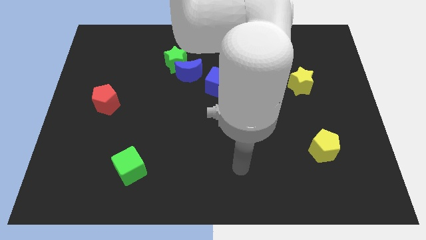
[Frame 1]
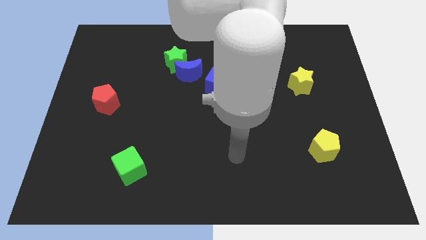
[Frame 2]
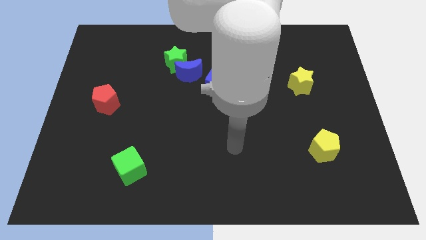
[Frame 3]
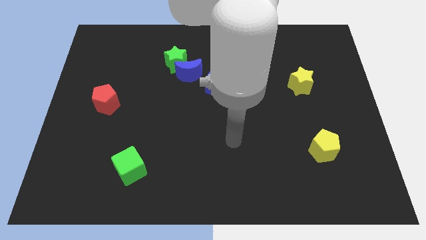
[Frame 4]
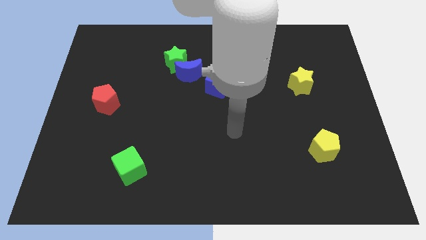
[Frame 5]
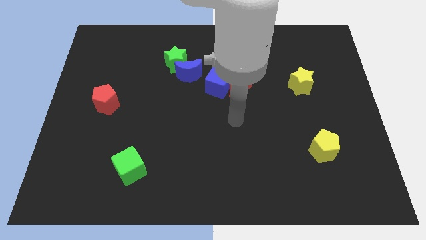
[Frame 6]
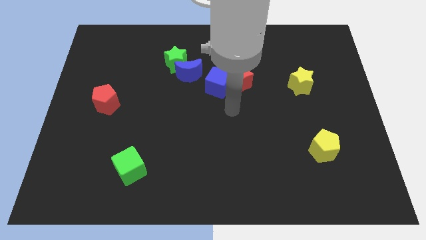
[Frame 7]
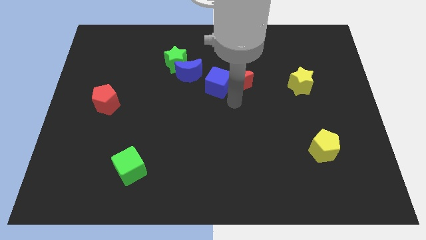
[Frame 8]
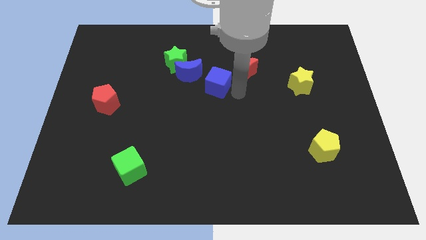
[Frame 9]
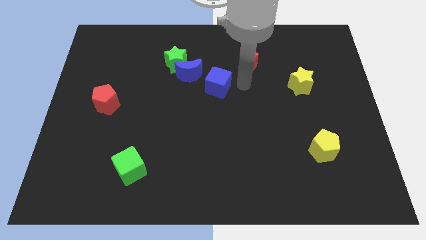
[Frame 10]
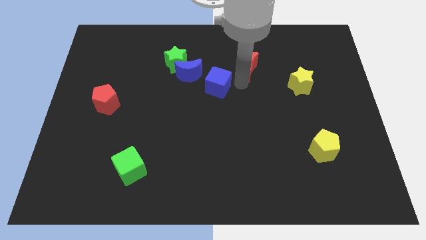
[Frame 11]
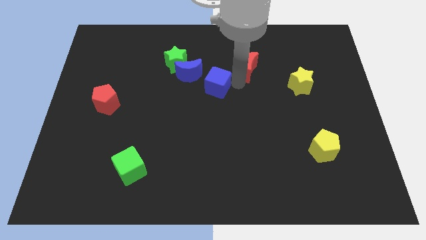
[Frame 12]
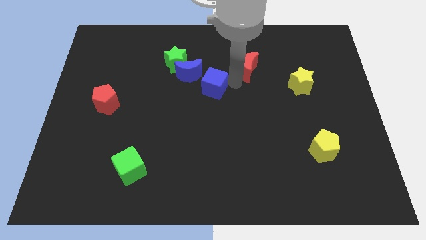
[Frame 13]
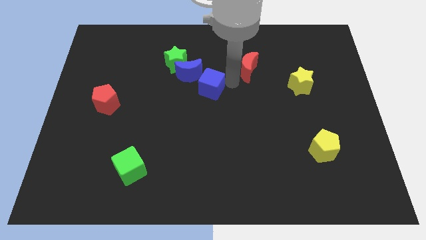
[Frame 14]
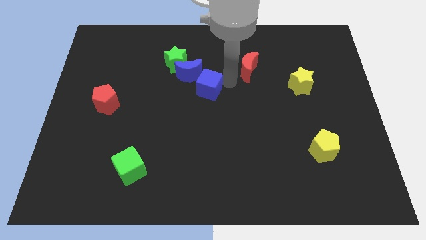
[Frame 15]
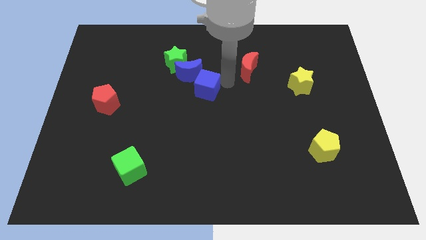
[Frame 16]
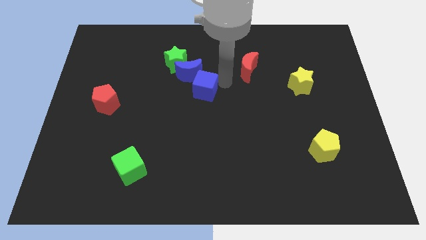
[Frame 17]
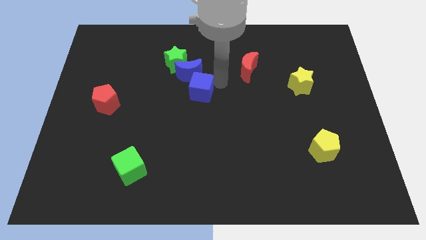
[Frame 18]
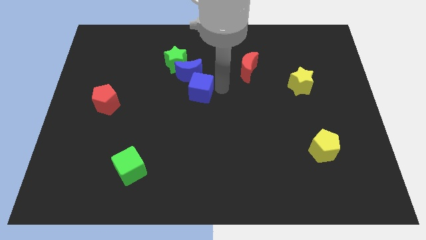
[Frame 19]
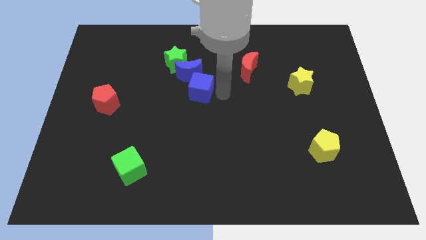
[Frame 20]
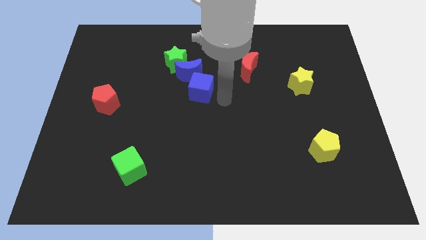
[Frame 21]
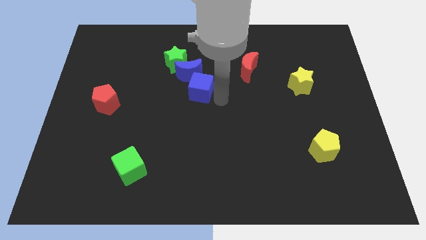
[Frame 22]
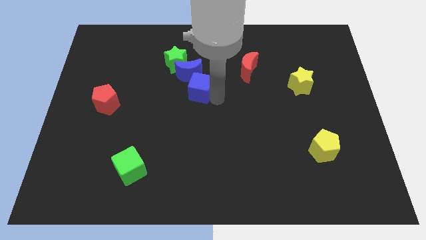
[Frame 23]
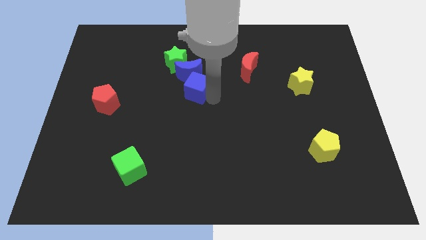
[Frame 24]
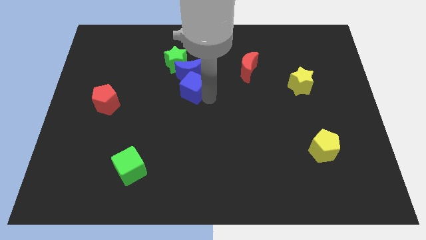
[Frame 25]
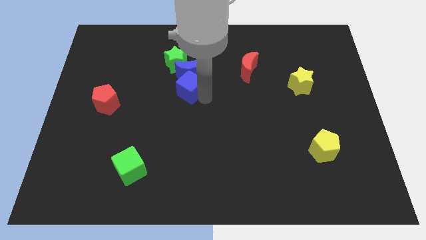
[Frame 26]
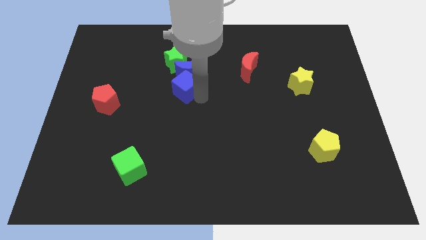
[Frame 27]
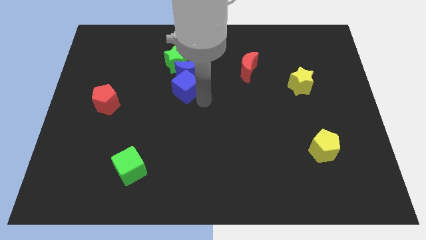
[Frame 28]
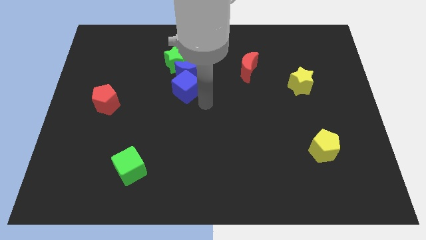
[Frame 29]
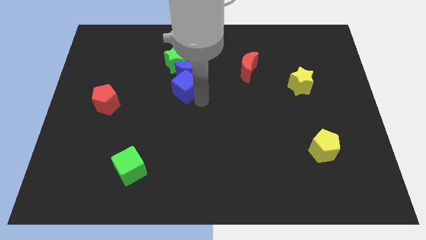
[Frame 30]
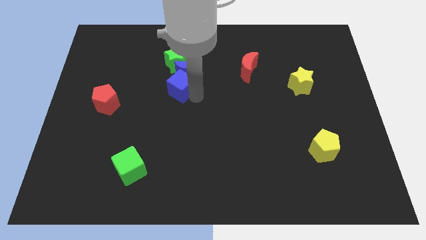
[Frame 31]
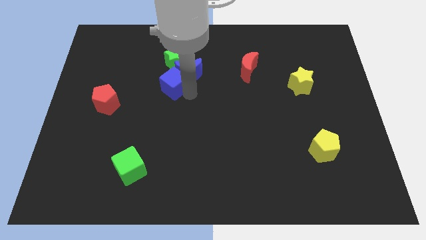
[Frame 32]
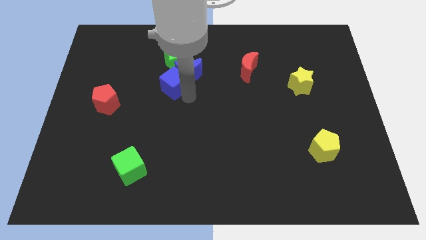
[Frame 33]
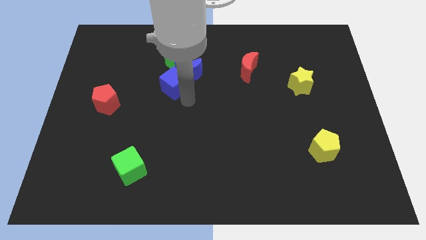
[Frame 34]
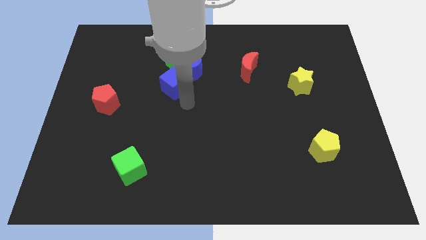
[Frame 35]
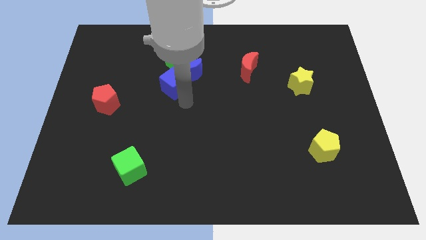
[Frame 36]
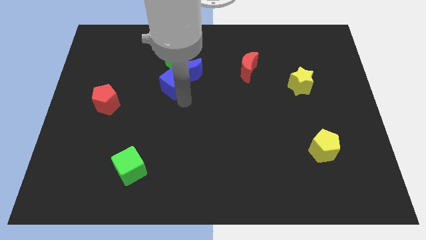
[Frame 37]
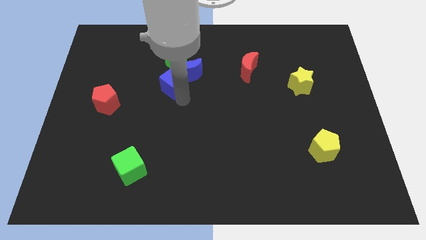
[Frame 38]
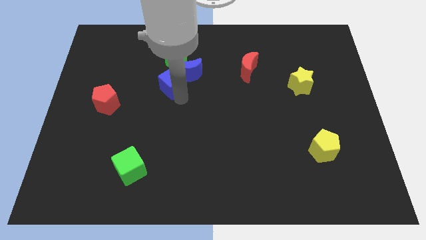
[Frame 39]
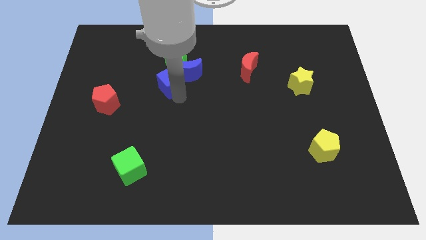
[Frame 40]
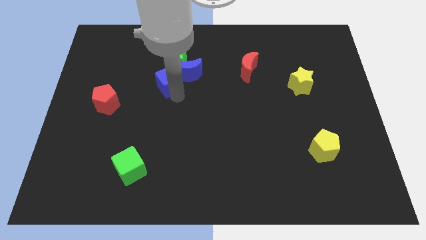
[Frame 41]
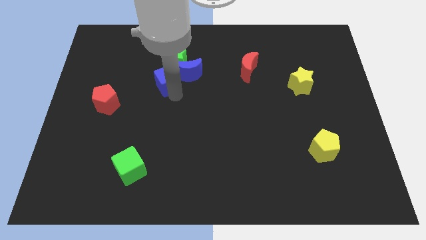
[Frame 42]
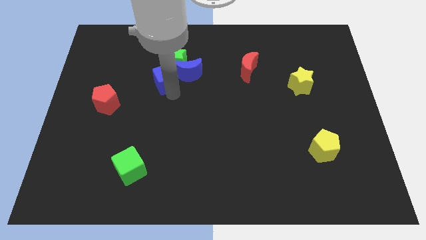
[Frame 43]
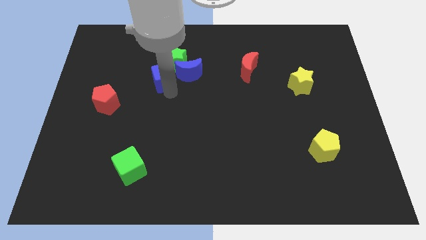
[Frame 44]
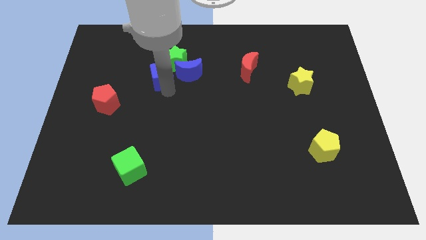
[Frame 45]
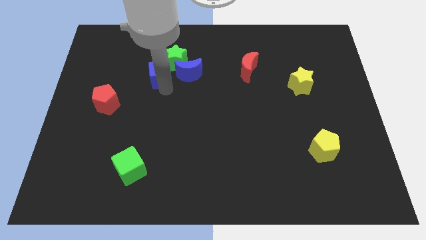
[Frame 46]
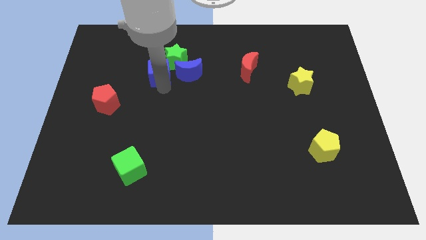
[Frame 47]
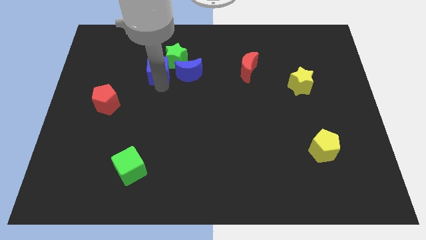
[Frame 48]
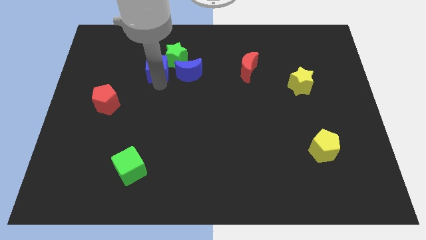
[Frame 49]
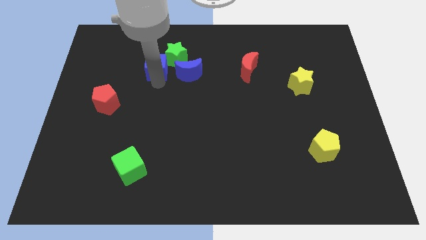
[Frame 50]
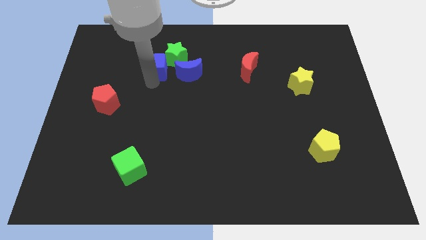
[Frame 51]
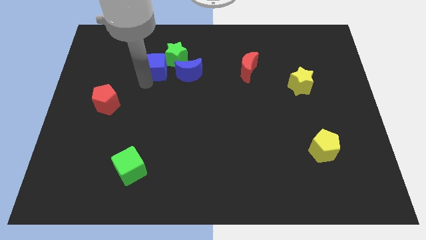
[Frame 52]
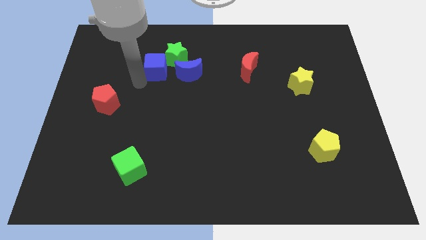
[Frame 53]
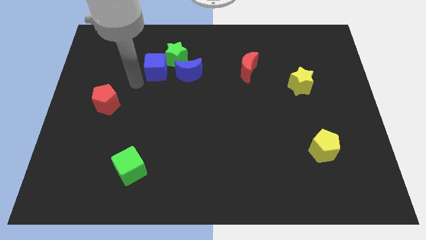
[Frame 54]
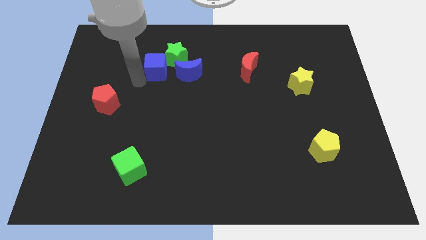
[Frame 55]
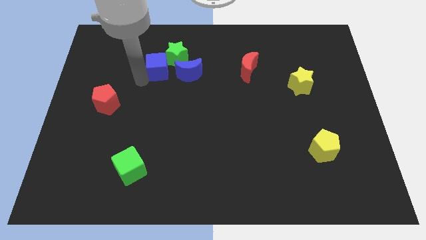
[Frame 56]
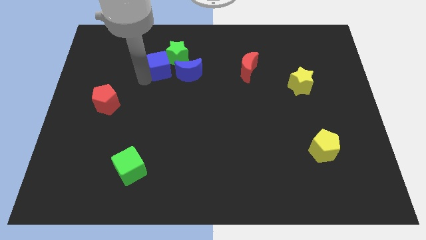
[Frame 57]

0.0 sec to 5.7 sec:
slide the blue cube towards the green star

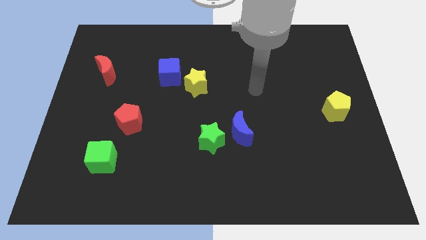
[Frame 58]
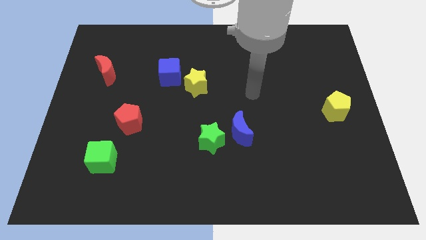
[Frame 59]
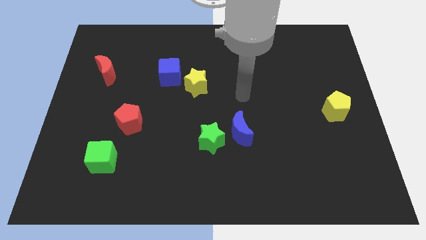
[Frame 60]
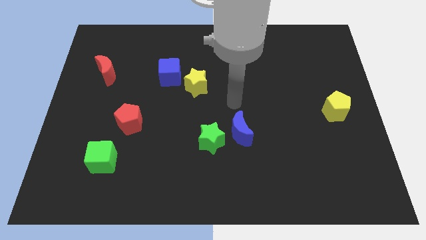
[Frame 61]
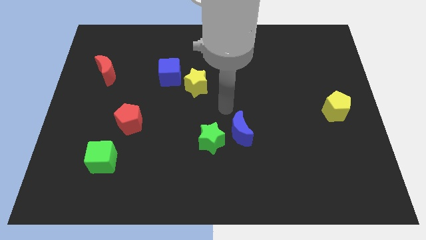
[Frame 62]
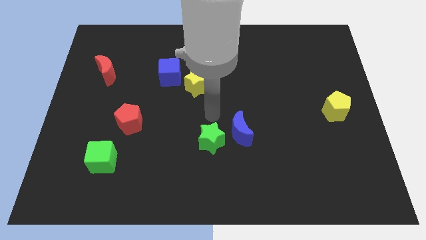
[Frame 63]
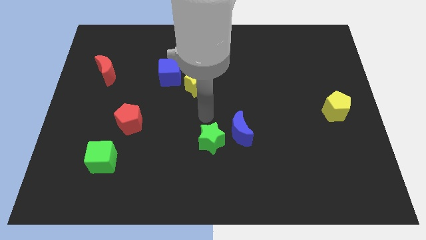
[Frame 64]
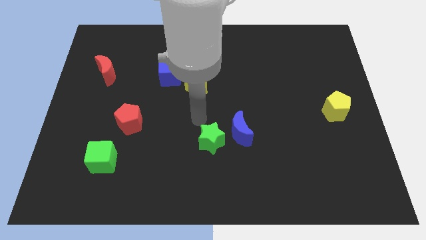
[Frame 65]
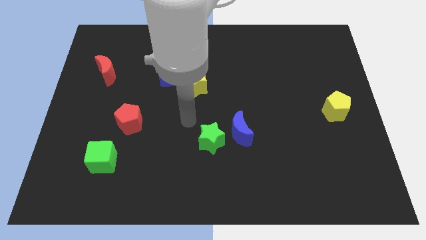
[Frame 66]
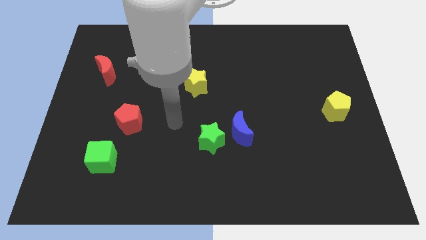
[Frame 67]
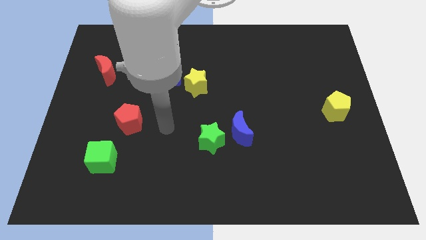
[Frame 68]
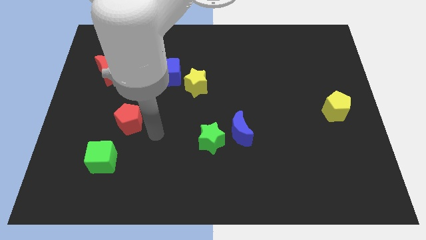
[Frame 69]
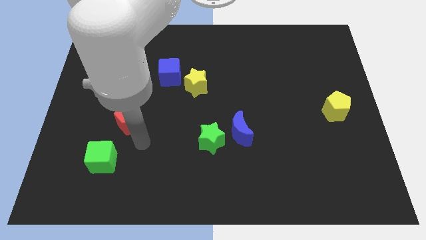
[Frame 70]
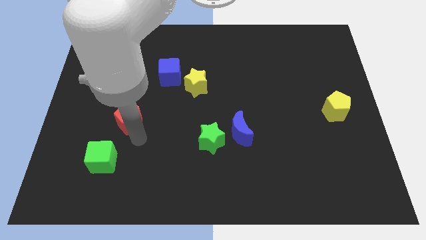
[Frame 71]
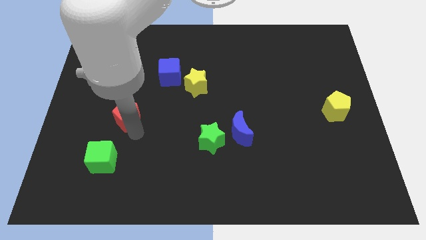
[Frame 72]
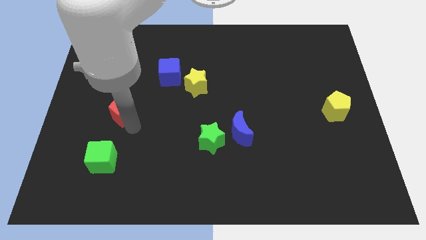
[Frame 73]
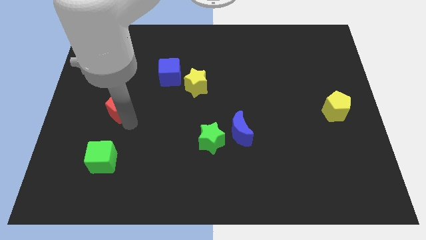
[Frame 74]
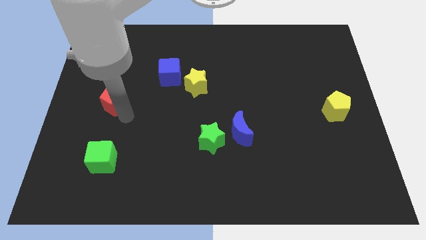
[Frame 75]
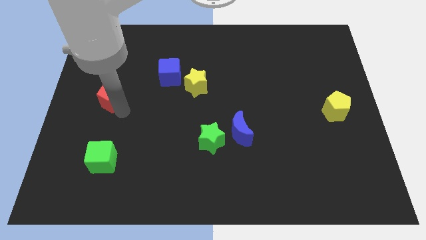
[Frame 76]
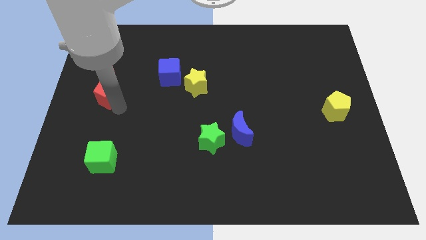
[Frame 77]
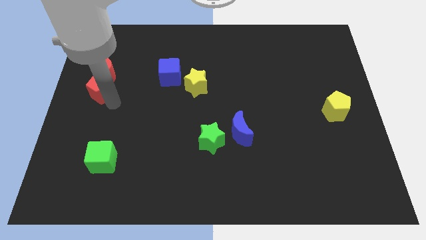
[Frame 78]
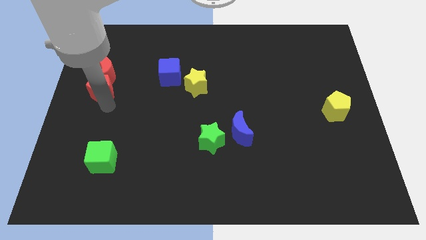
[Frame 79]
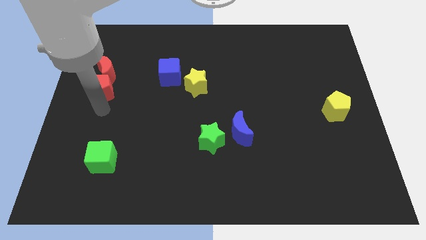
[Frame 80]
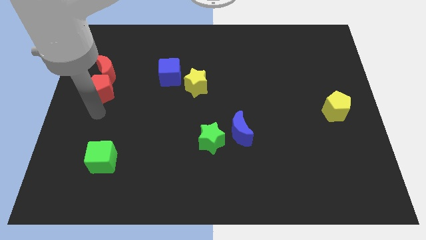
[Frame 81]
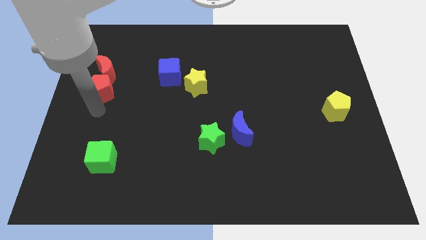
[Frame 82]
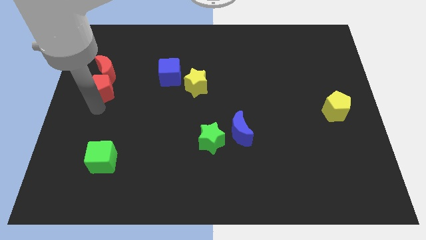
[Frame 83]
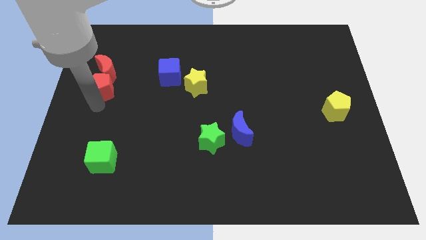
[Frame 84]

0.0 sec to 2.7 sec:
move the red pentagon towards the red moon
